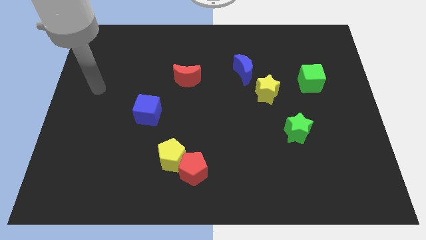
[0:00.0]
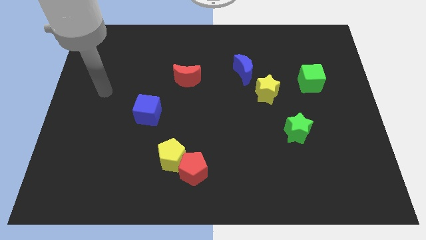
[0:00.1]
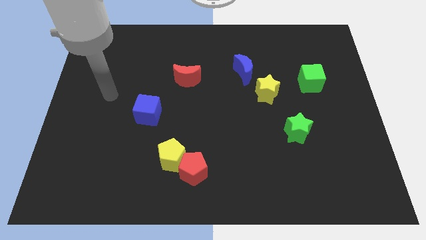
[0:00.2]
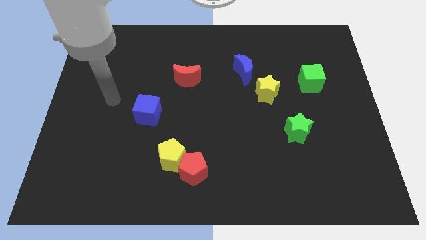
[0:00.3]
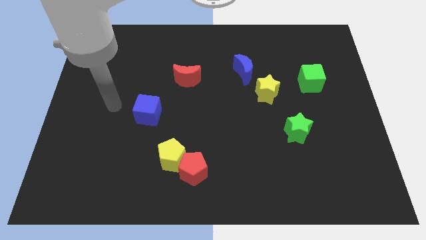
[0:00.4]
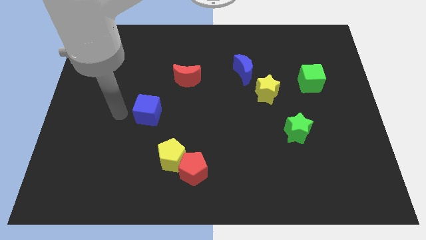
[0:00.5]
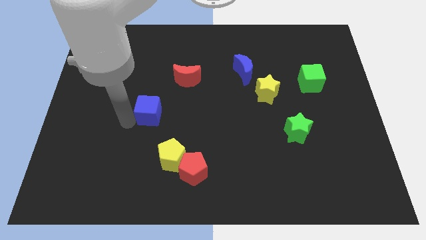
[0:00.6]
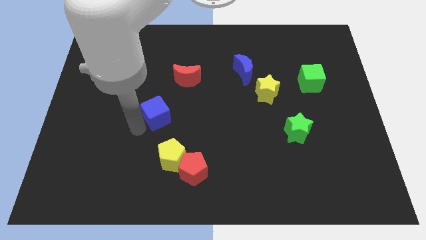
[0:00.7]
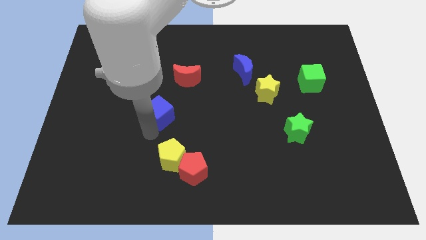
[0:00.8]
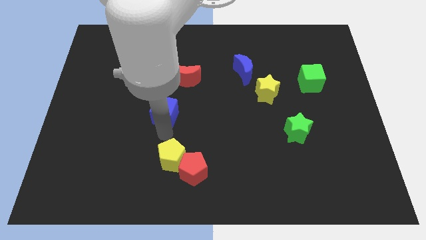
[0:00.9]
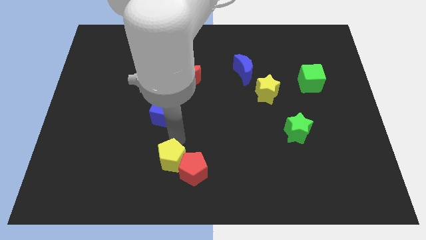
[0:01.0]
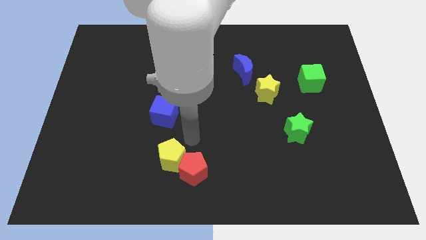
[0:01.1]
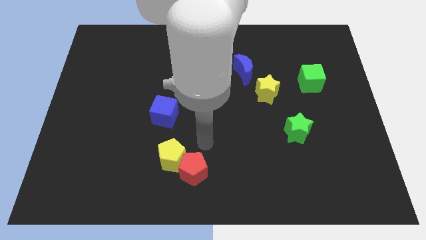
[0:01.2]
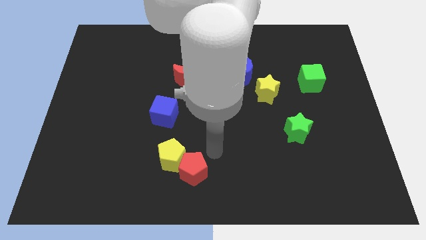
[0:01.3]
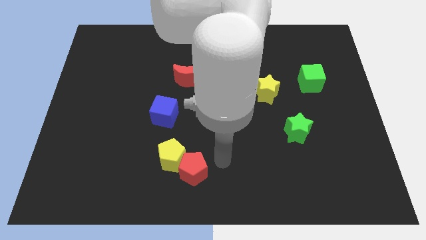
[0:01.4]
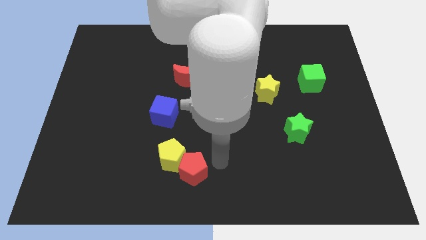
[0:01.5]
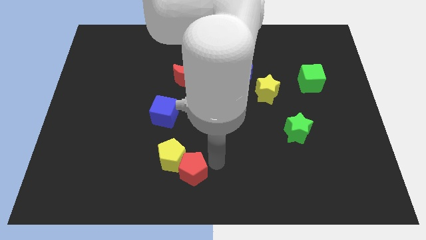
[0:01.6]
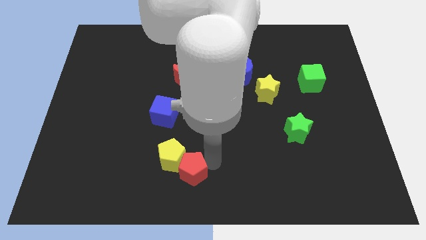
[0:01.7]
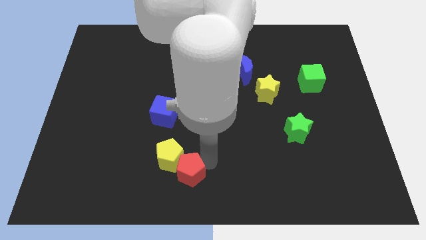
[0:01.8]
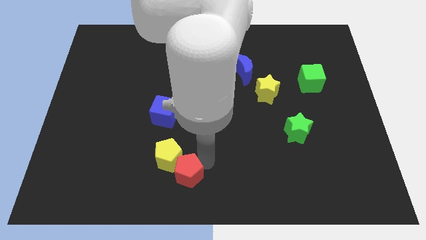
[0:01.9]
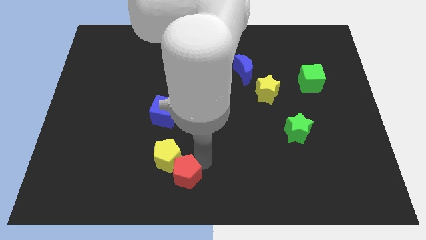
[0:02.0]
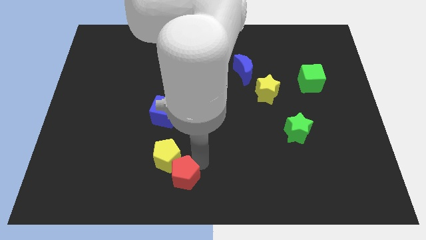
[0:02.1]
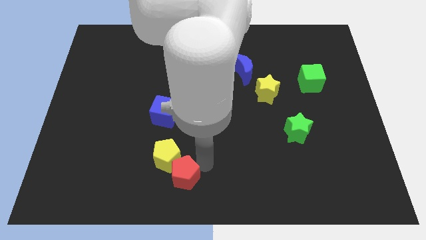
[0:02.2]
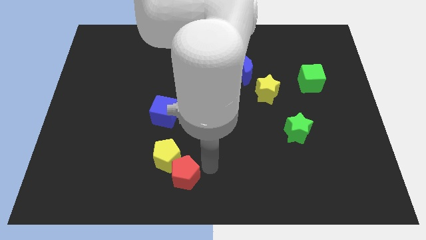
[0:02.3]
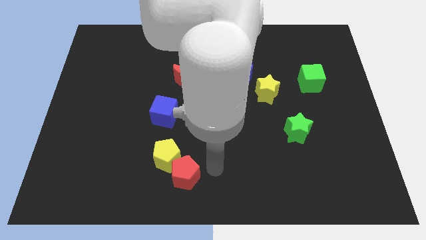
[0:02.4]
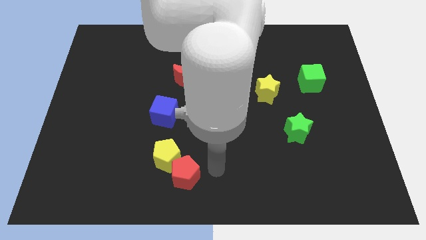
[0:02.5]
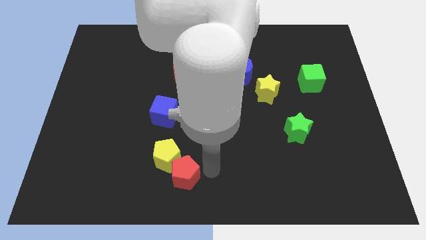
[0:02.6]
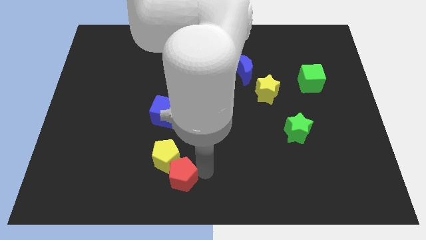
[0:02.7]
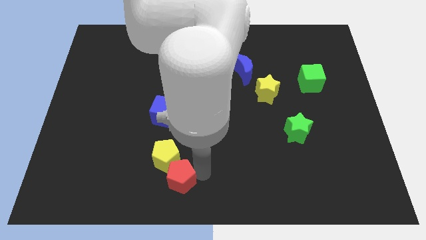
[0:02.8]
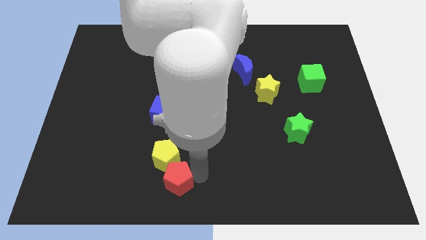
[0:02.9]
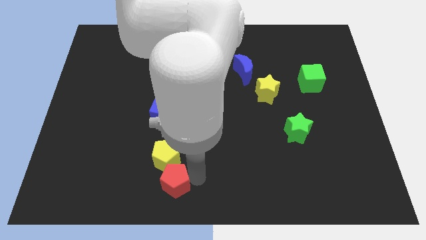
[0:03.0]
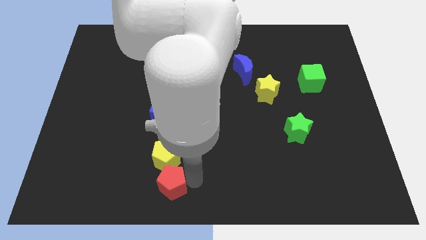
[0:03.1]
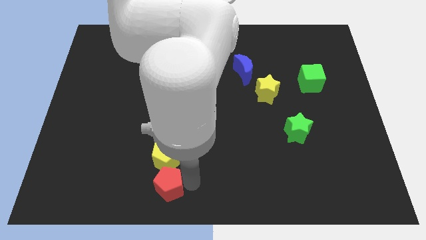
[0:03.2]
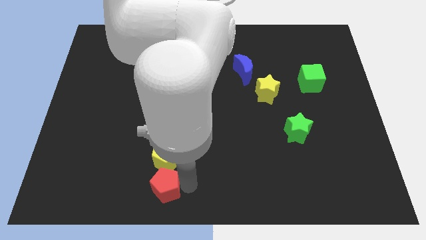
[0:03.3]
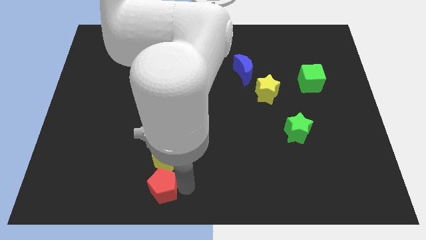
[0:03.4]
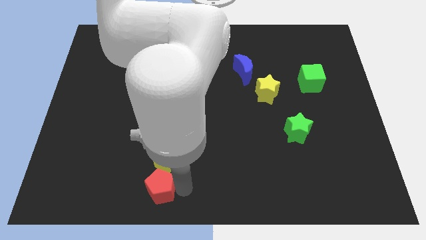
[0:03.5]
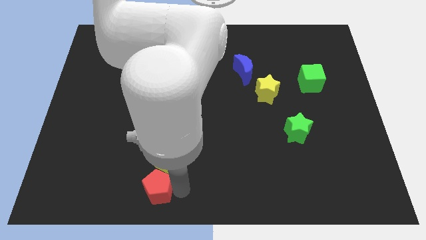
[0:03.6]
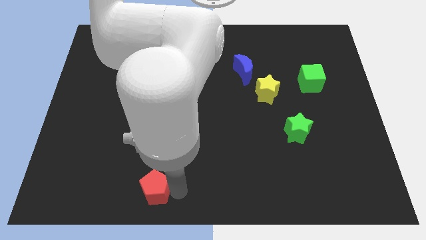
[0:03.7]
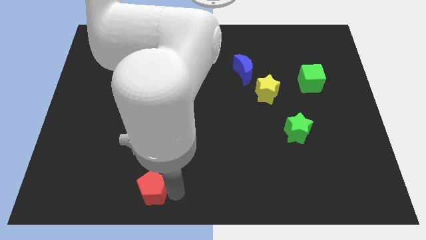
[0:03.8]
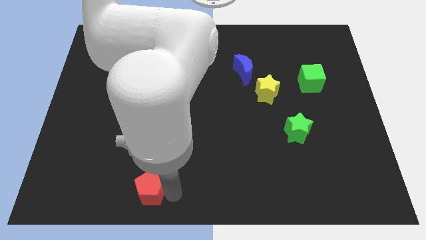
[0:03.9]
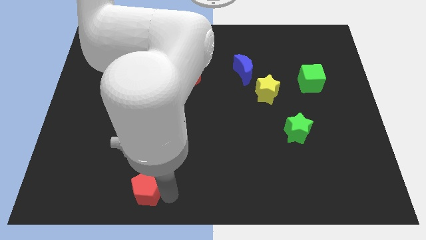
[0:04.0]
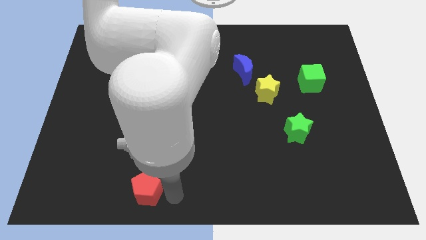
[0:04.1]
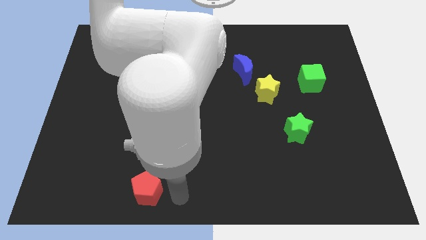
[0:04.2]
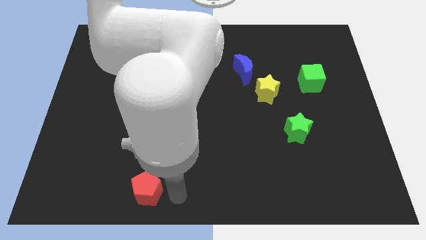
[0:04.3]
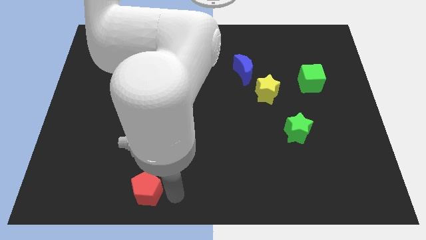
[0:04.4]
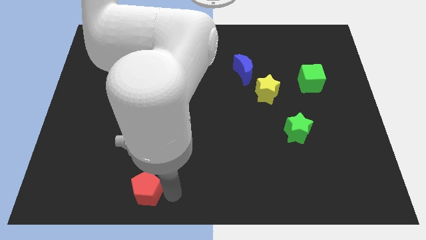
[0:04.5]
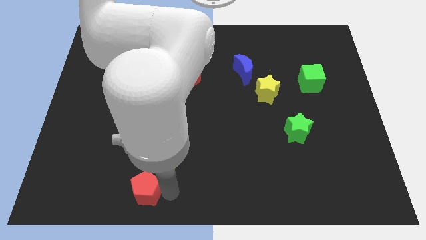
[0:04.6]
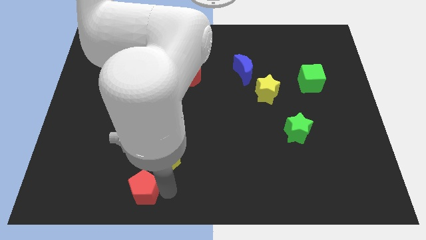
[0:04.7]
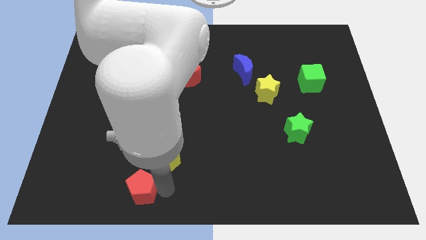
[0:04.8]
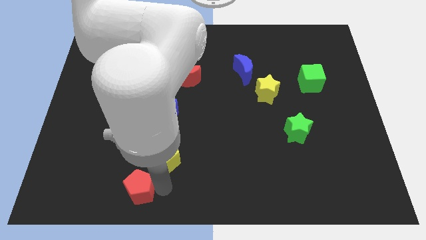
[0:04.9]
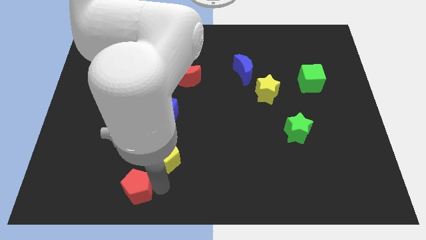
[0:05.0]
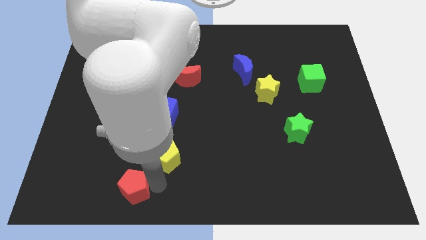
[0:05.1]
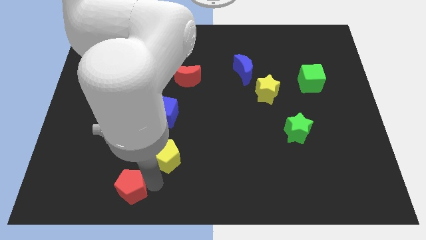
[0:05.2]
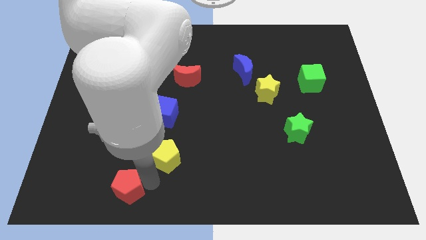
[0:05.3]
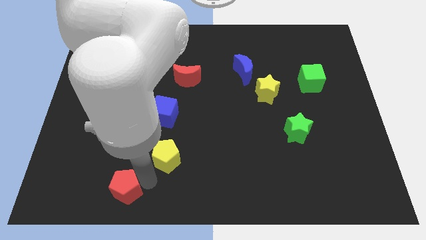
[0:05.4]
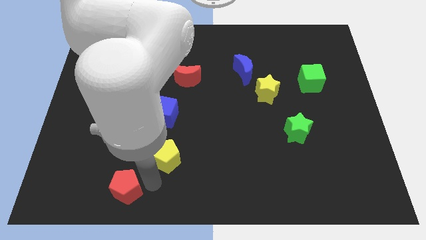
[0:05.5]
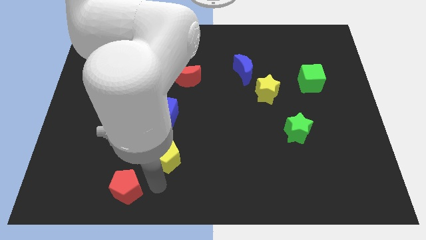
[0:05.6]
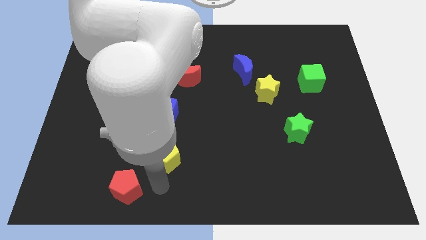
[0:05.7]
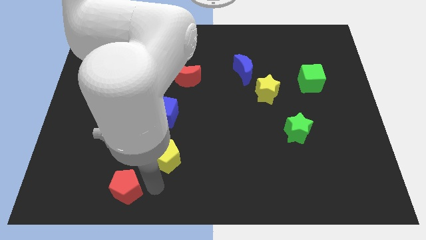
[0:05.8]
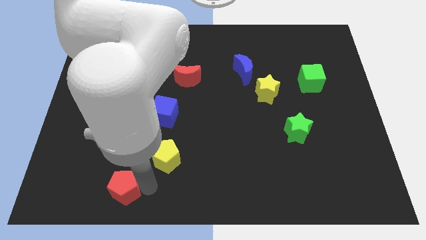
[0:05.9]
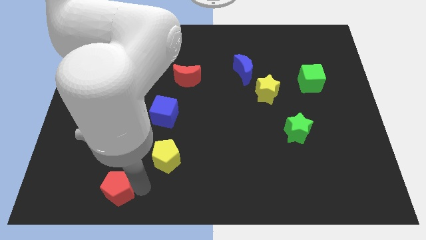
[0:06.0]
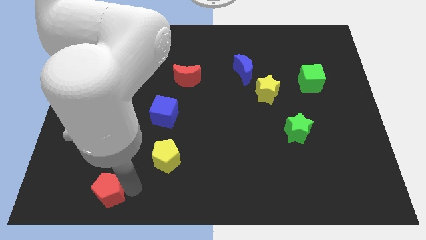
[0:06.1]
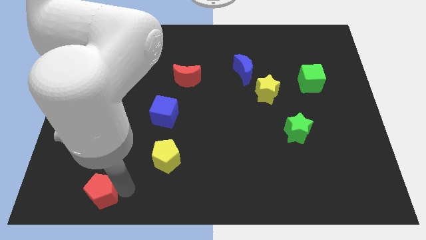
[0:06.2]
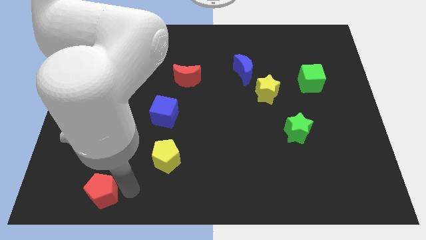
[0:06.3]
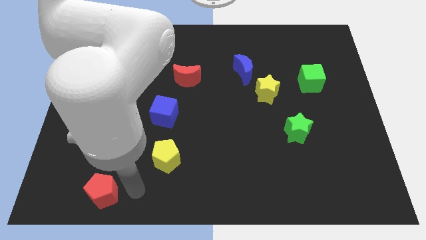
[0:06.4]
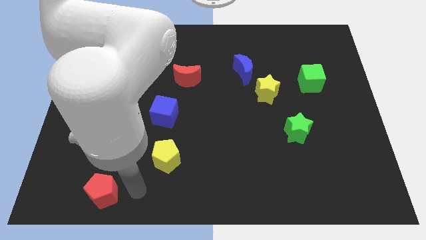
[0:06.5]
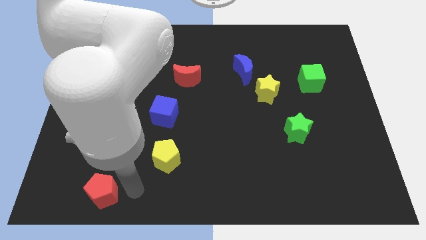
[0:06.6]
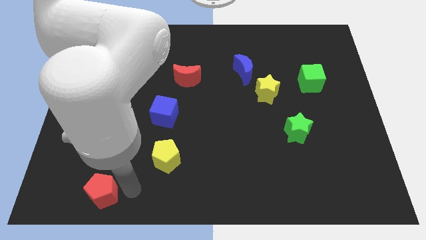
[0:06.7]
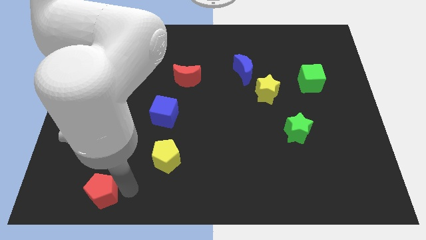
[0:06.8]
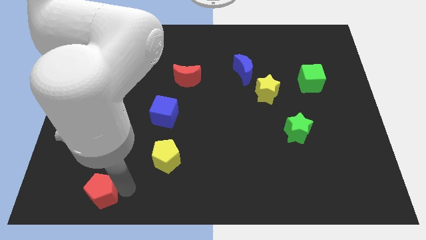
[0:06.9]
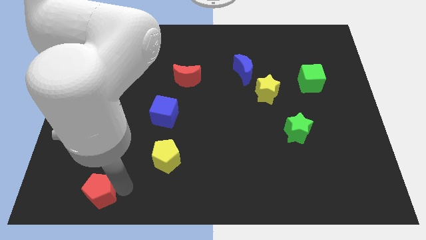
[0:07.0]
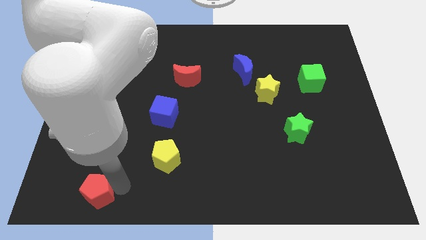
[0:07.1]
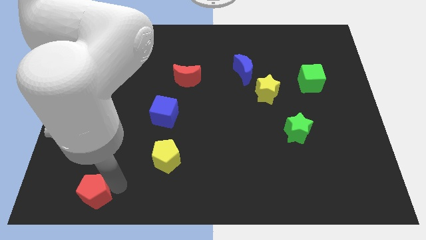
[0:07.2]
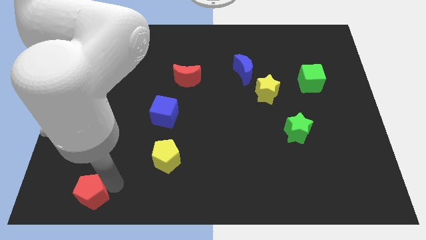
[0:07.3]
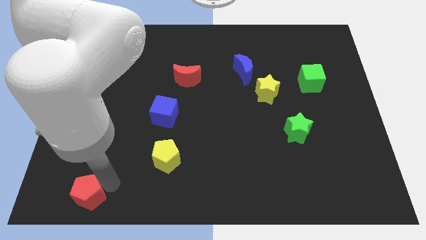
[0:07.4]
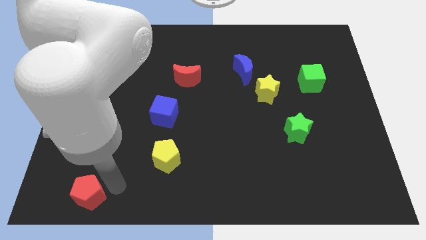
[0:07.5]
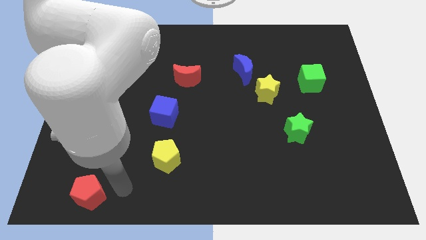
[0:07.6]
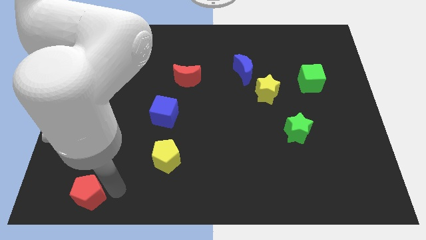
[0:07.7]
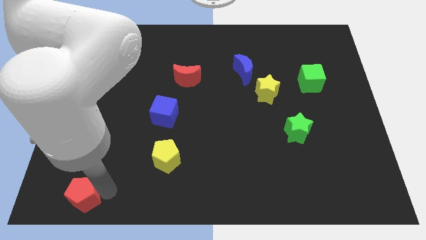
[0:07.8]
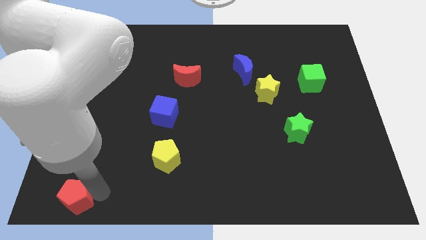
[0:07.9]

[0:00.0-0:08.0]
move the red pentagon to the lower left corner
